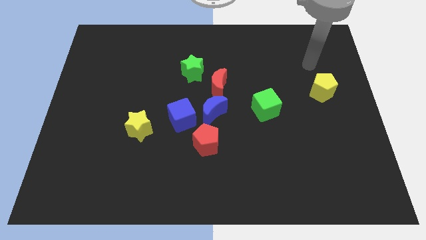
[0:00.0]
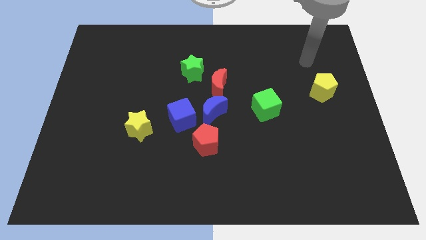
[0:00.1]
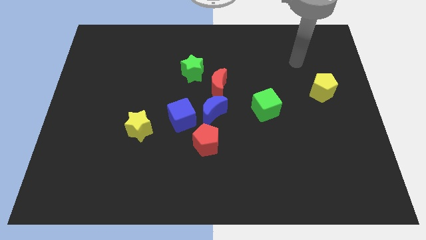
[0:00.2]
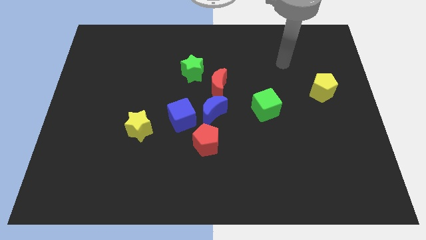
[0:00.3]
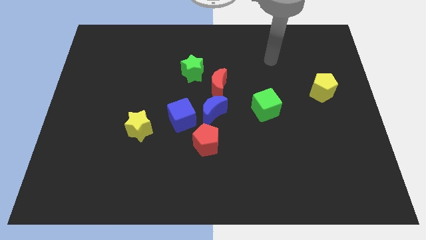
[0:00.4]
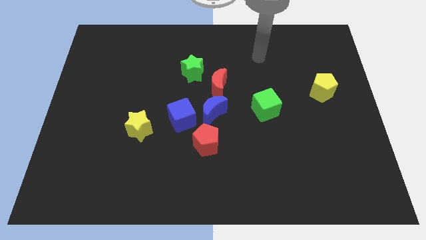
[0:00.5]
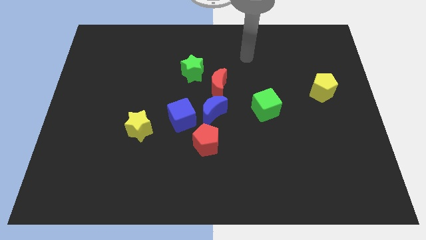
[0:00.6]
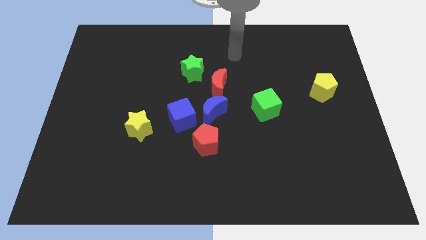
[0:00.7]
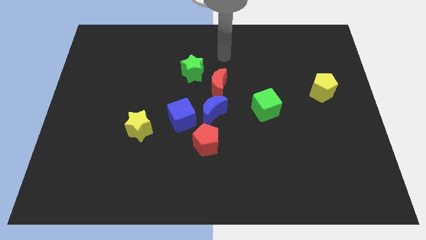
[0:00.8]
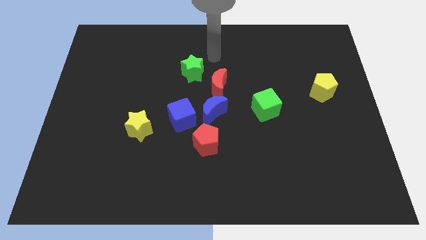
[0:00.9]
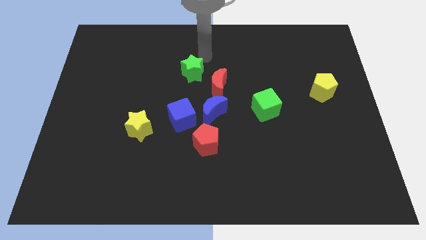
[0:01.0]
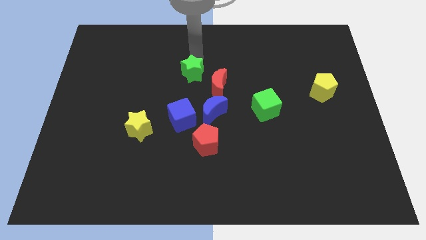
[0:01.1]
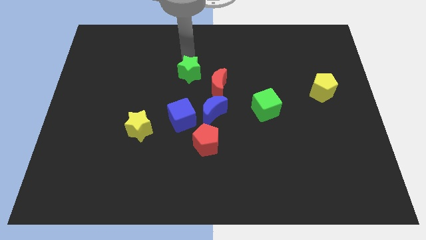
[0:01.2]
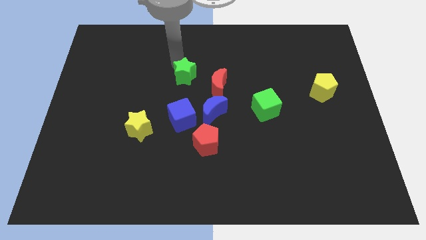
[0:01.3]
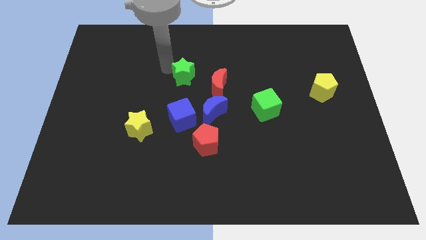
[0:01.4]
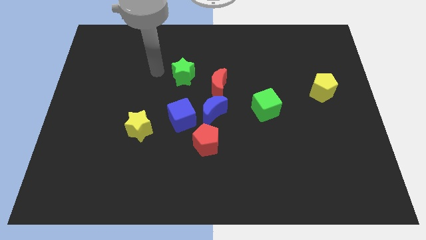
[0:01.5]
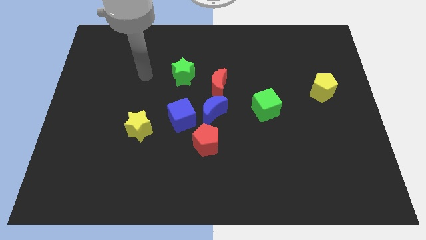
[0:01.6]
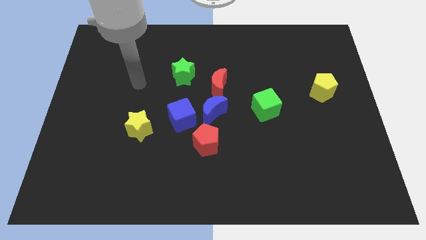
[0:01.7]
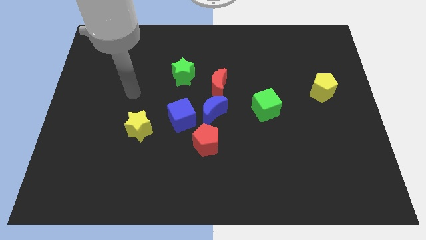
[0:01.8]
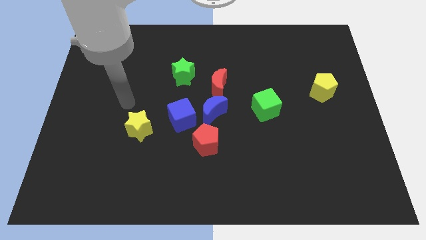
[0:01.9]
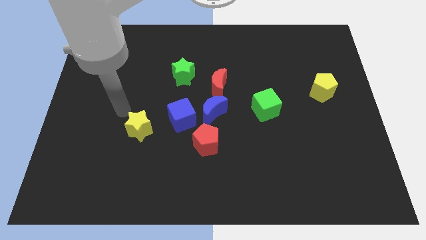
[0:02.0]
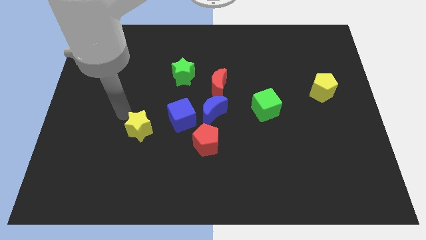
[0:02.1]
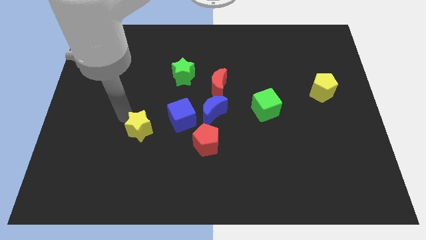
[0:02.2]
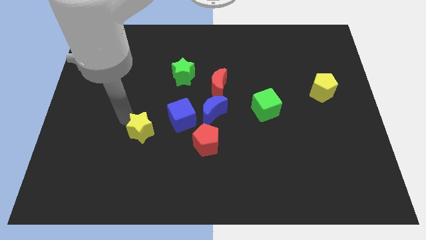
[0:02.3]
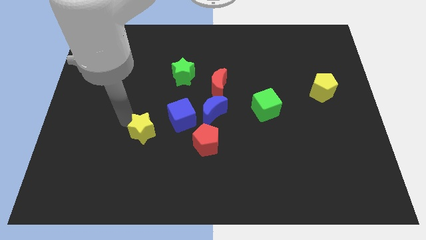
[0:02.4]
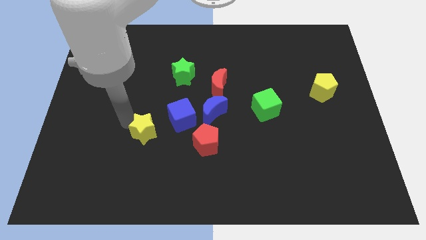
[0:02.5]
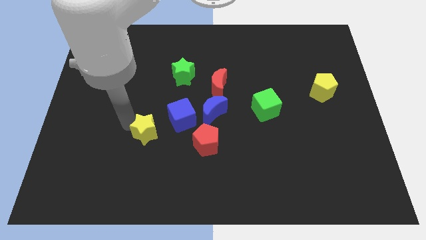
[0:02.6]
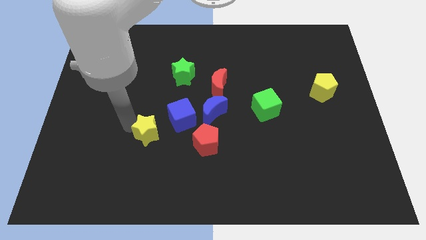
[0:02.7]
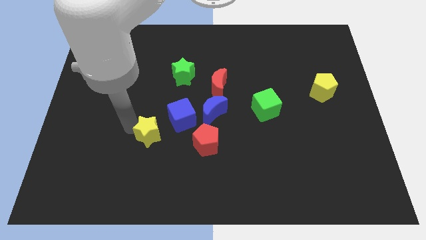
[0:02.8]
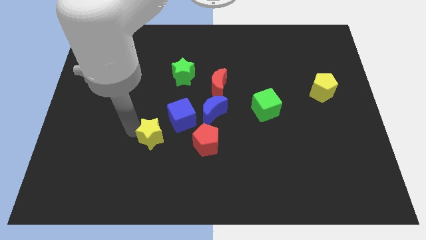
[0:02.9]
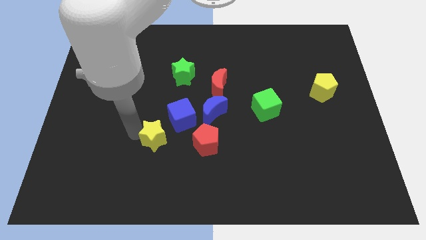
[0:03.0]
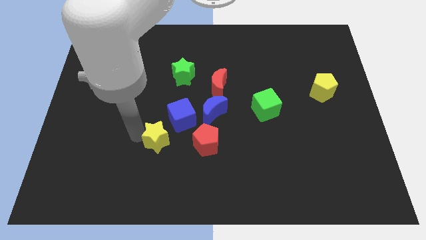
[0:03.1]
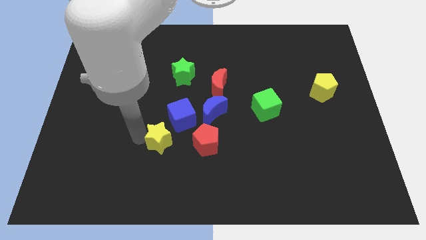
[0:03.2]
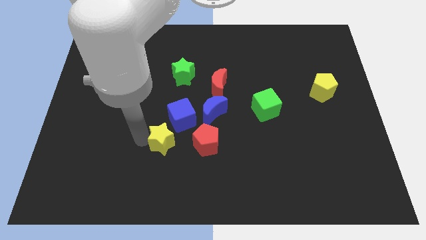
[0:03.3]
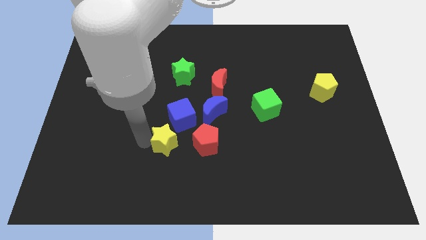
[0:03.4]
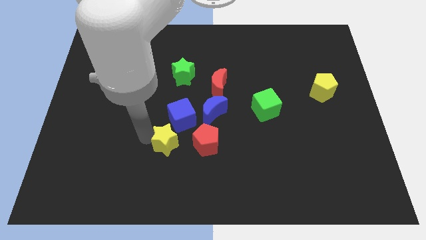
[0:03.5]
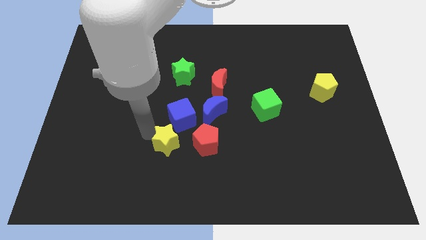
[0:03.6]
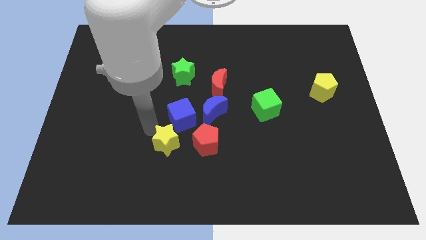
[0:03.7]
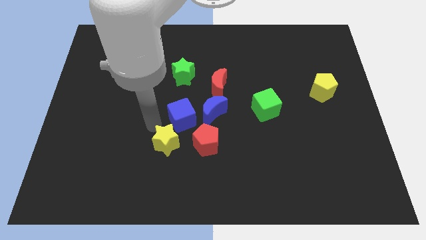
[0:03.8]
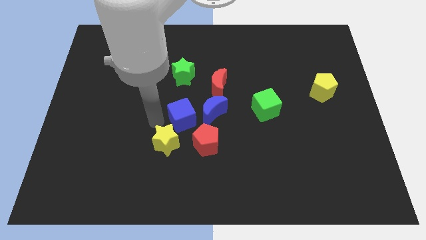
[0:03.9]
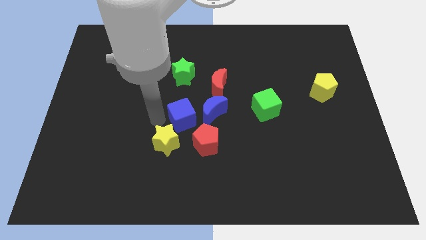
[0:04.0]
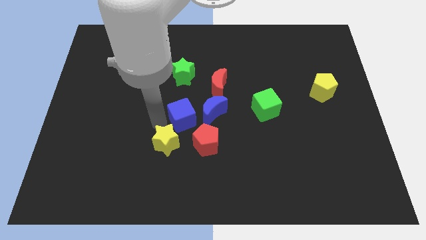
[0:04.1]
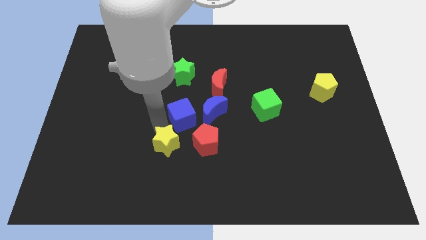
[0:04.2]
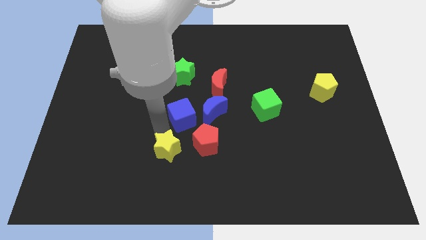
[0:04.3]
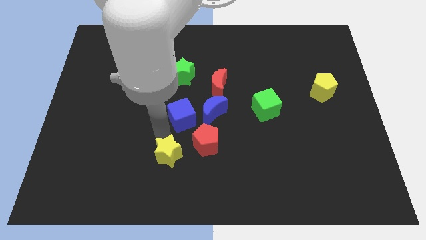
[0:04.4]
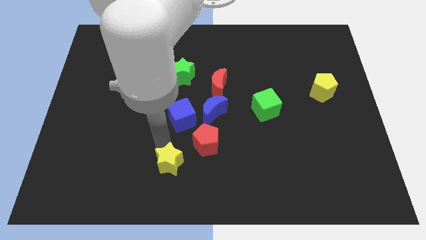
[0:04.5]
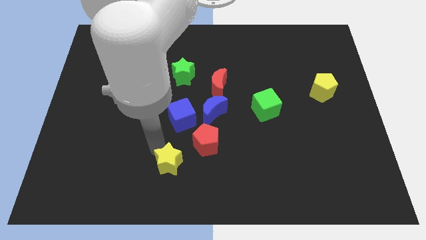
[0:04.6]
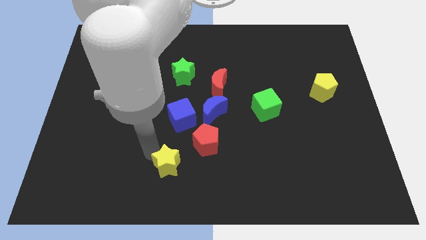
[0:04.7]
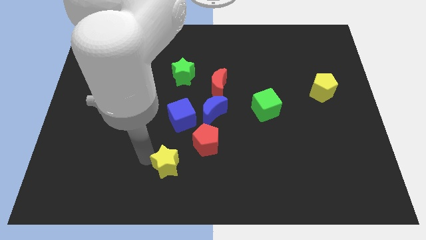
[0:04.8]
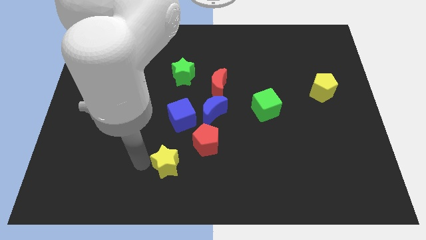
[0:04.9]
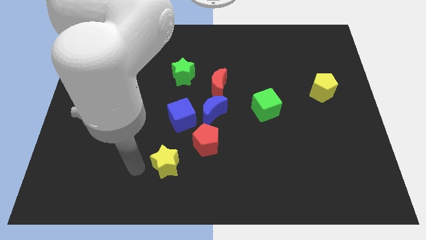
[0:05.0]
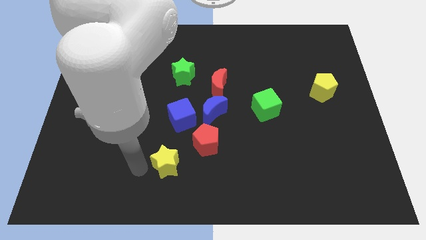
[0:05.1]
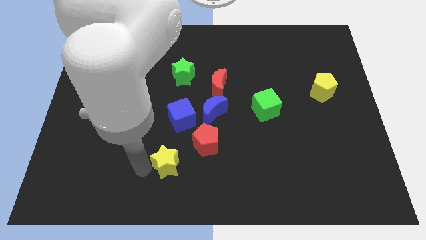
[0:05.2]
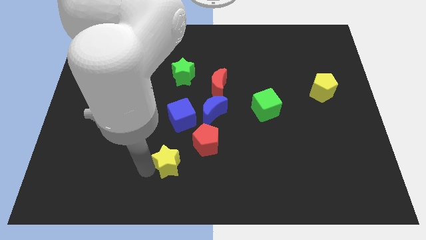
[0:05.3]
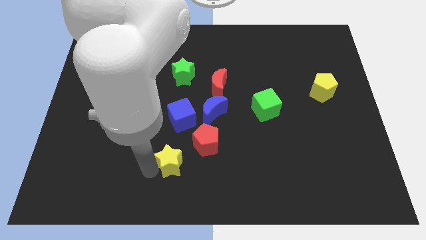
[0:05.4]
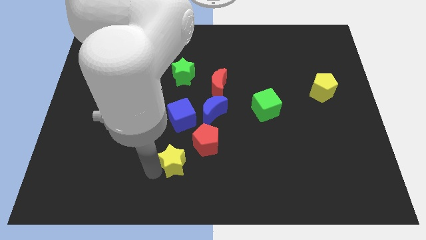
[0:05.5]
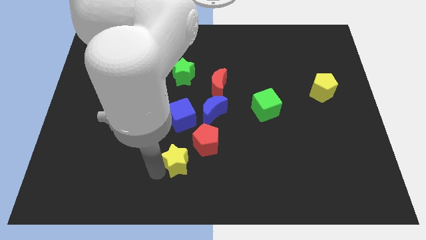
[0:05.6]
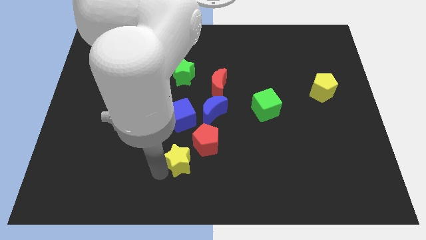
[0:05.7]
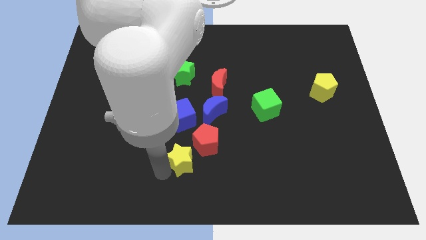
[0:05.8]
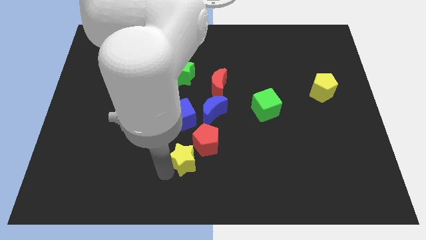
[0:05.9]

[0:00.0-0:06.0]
move the yellow star right a little bit

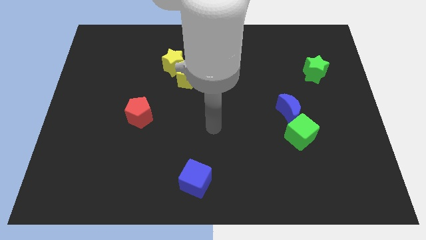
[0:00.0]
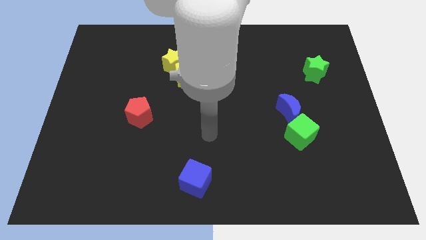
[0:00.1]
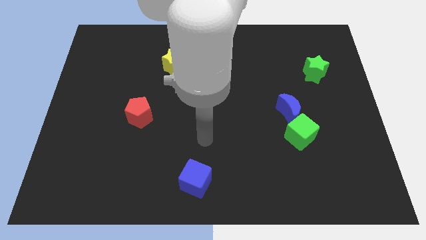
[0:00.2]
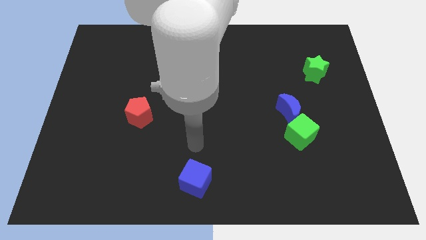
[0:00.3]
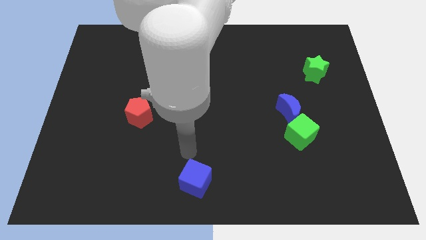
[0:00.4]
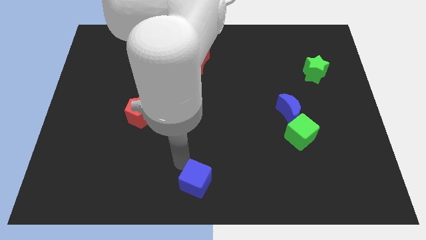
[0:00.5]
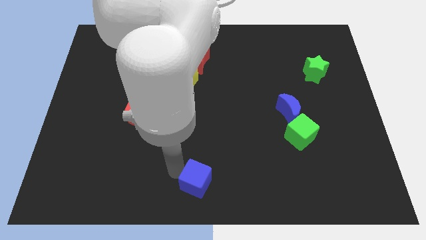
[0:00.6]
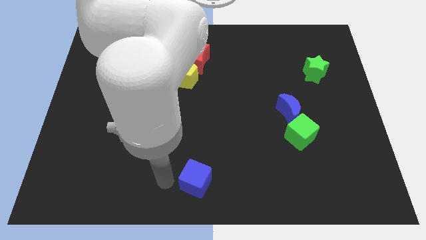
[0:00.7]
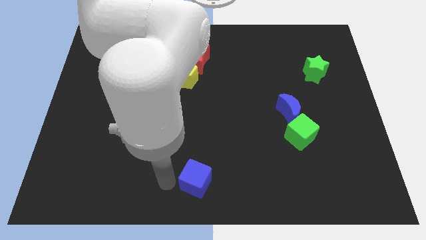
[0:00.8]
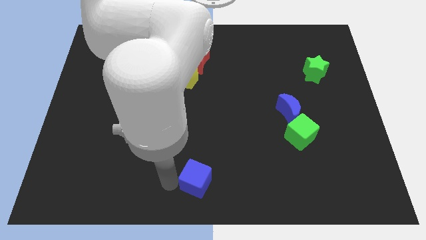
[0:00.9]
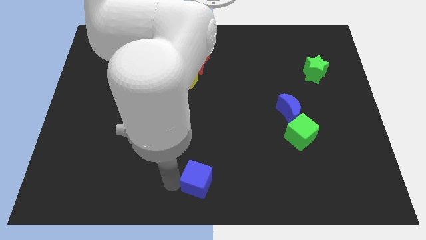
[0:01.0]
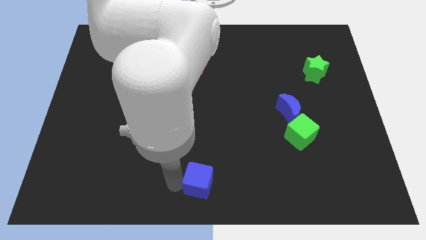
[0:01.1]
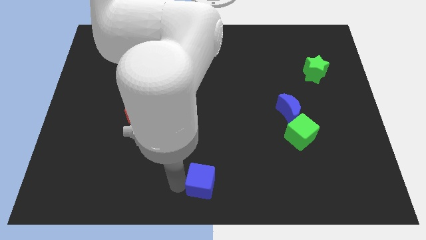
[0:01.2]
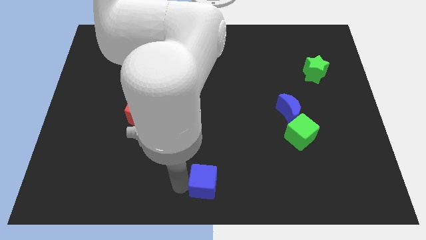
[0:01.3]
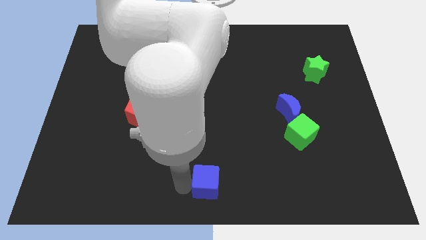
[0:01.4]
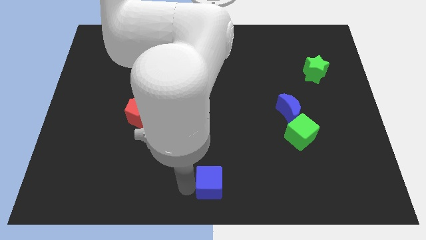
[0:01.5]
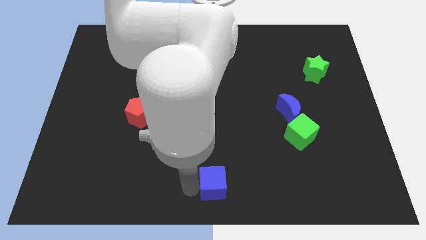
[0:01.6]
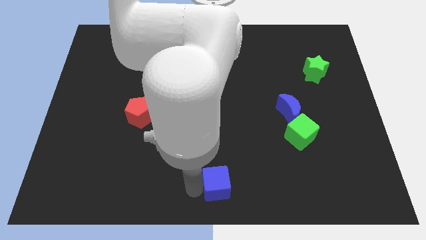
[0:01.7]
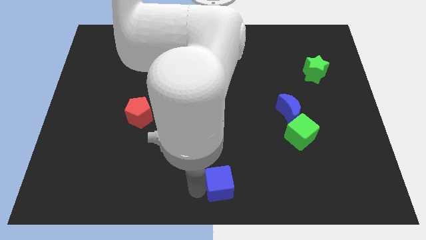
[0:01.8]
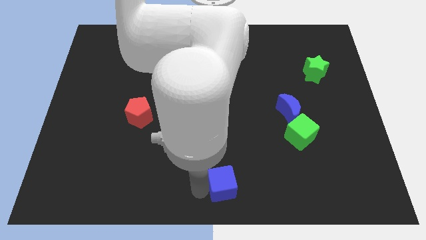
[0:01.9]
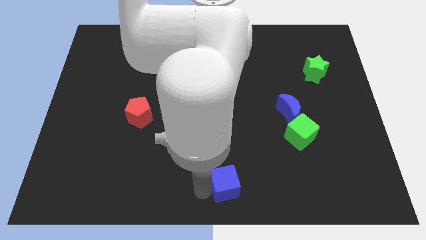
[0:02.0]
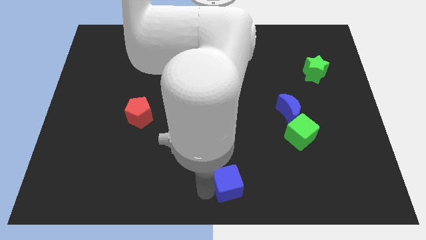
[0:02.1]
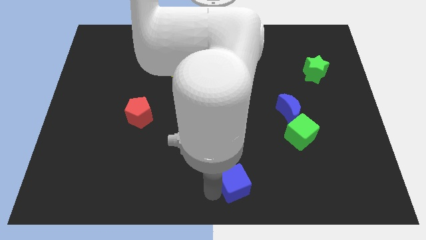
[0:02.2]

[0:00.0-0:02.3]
push the blue cube slightly to the right
